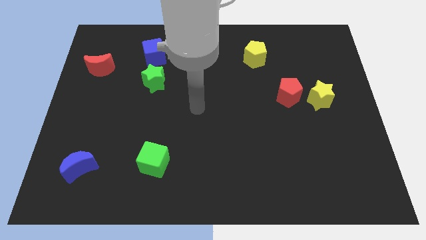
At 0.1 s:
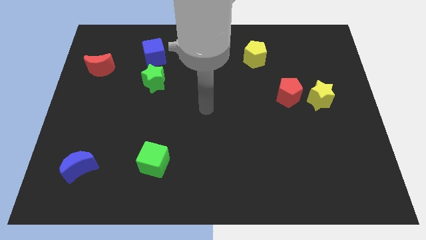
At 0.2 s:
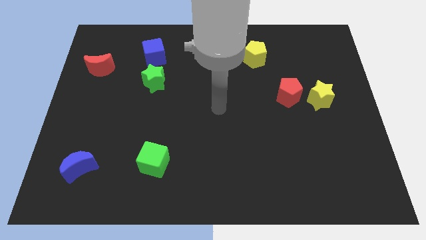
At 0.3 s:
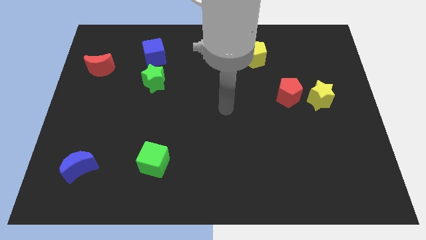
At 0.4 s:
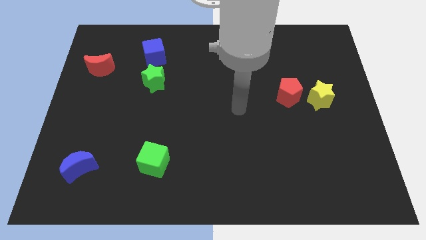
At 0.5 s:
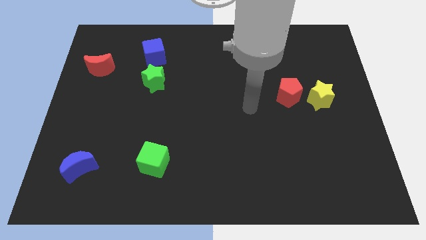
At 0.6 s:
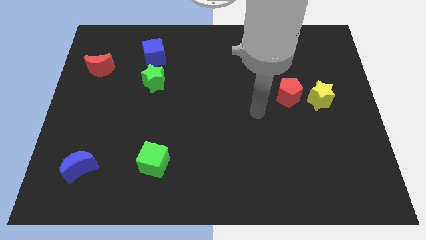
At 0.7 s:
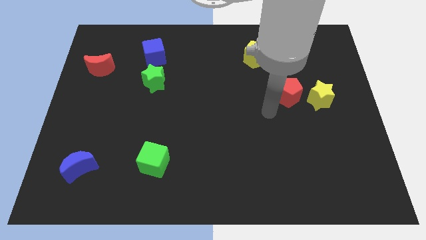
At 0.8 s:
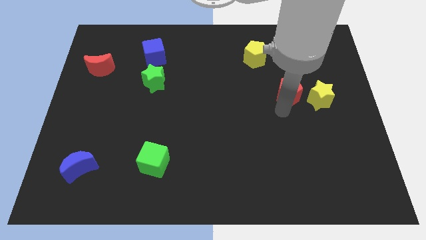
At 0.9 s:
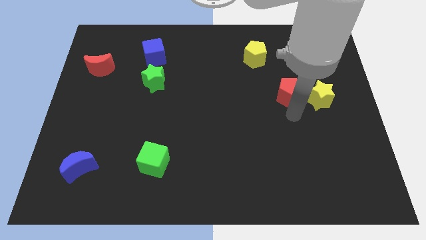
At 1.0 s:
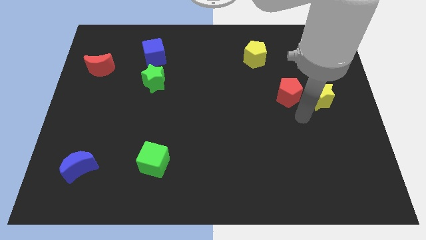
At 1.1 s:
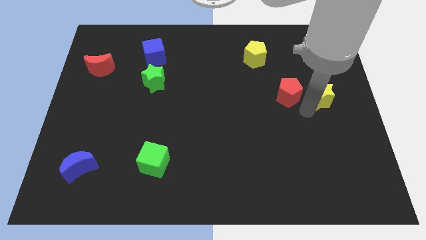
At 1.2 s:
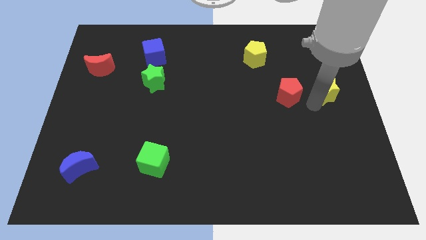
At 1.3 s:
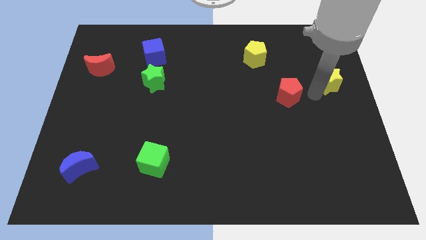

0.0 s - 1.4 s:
pull the red pentagon apart from the yellow star

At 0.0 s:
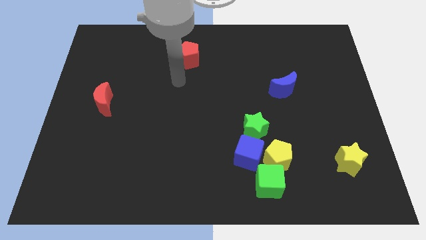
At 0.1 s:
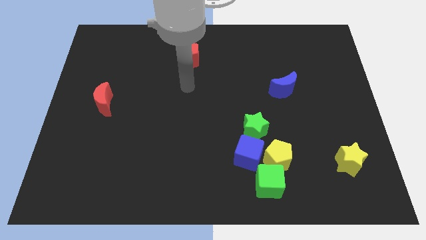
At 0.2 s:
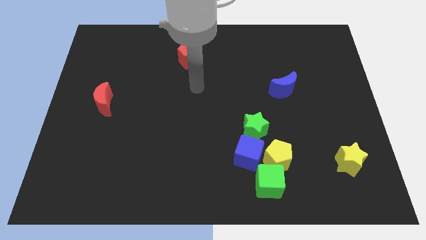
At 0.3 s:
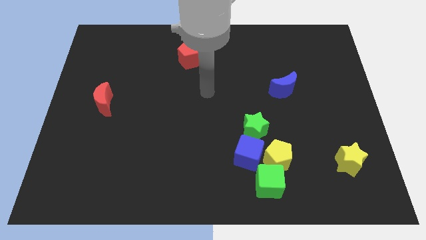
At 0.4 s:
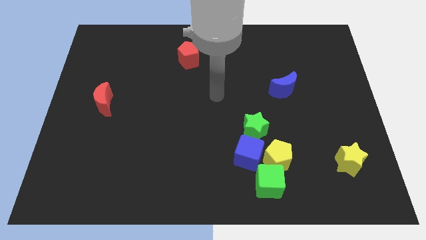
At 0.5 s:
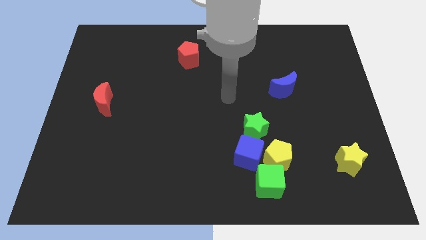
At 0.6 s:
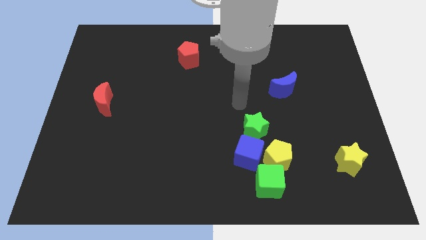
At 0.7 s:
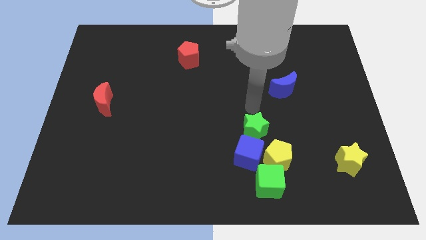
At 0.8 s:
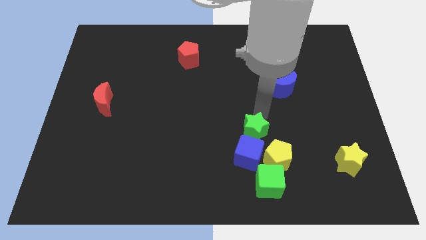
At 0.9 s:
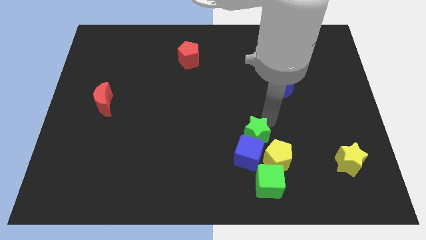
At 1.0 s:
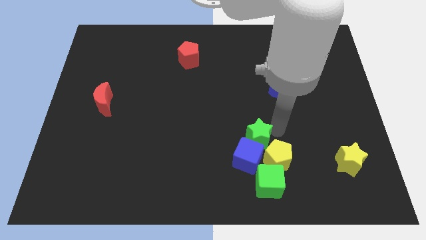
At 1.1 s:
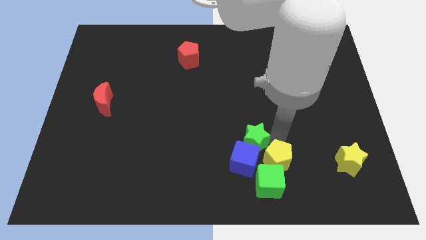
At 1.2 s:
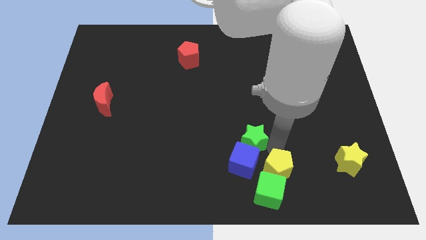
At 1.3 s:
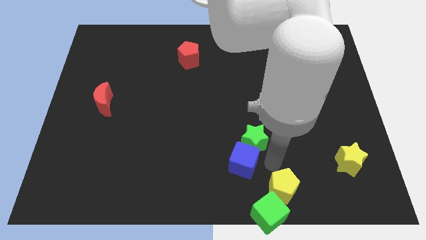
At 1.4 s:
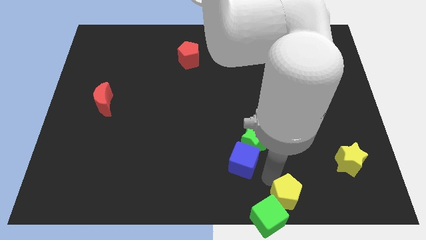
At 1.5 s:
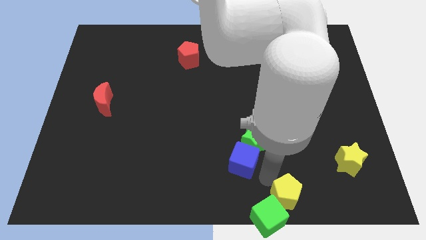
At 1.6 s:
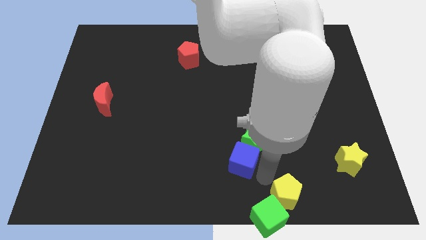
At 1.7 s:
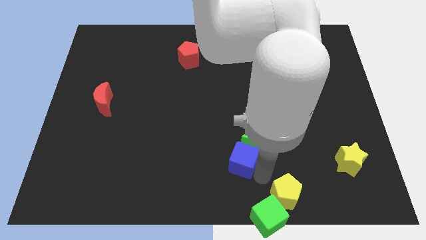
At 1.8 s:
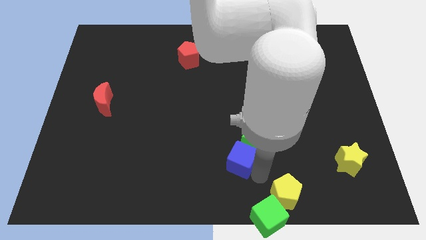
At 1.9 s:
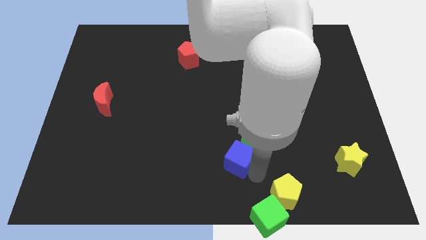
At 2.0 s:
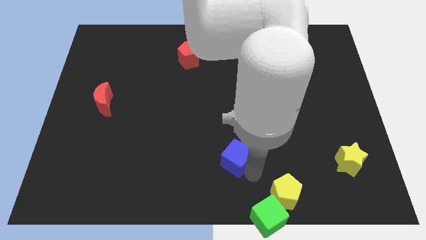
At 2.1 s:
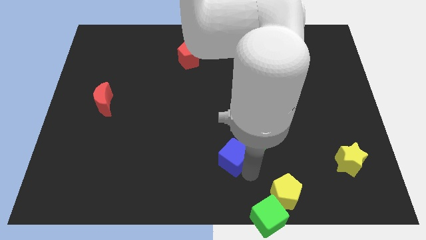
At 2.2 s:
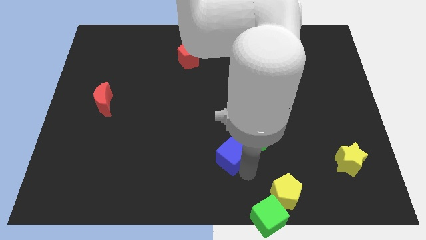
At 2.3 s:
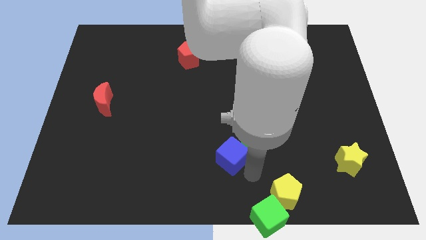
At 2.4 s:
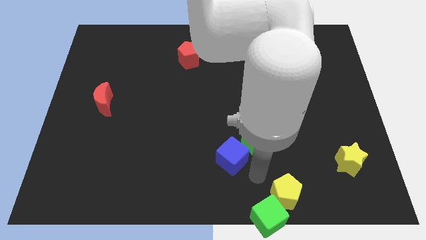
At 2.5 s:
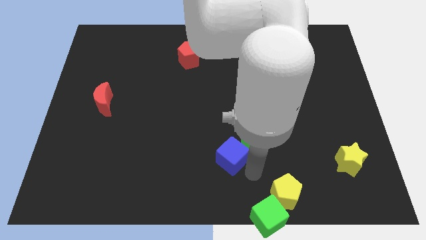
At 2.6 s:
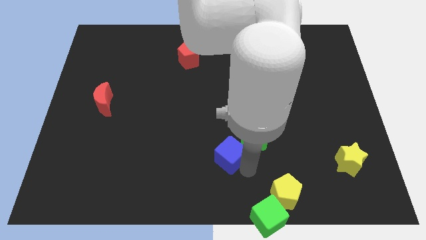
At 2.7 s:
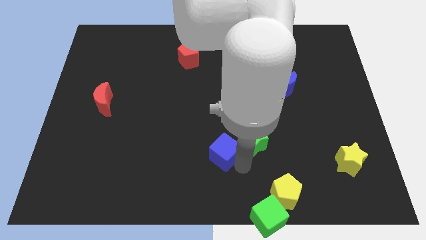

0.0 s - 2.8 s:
pull the blue cube apart from the group of blocks

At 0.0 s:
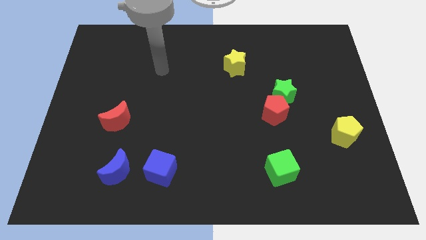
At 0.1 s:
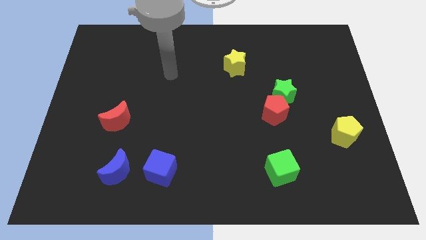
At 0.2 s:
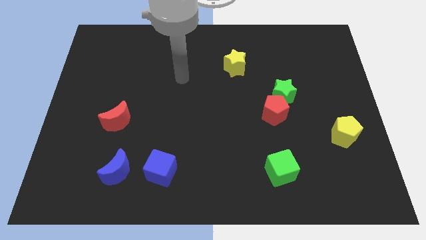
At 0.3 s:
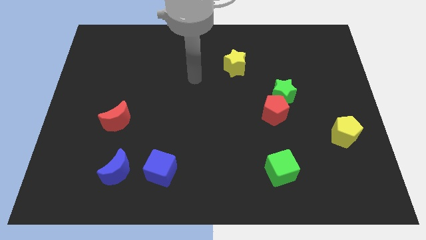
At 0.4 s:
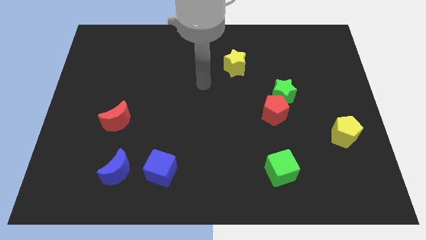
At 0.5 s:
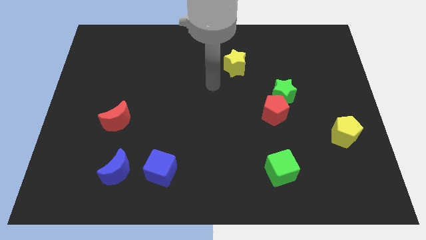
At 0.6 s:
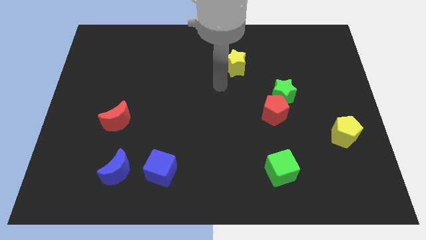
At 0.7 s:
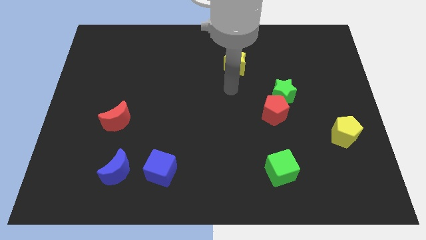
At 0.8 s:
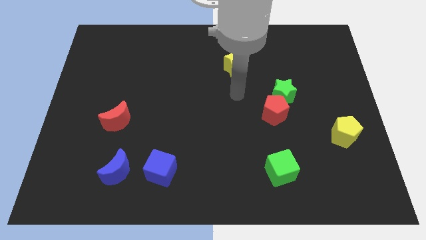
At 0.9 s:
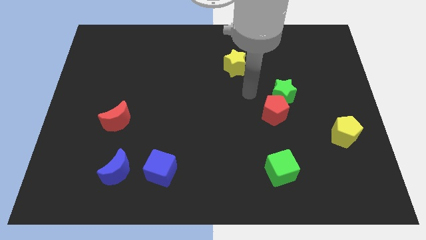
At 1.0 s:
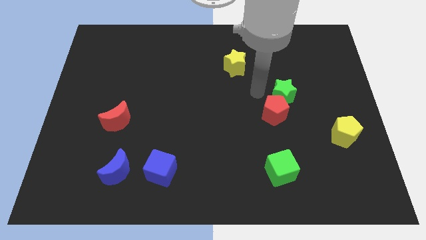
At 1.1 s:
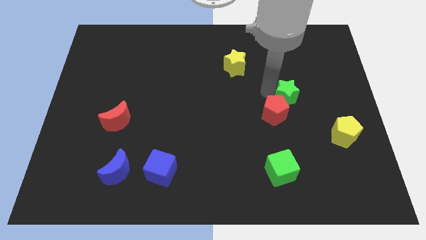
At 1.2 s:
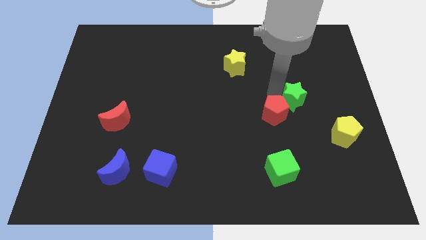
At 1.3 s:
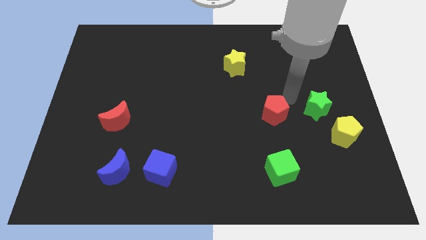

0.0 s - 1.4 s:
separate the red pentagon from the green star

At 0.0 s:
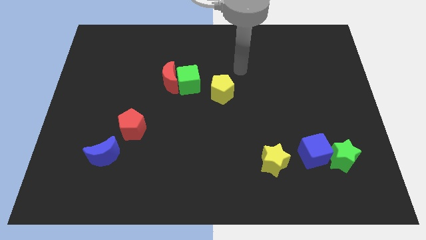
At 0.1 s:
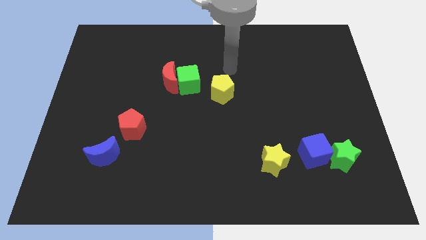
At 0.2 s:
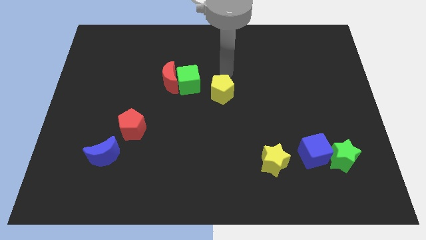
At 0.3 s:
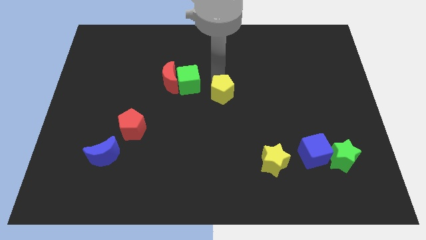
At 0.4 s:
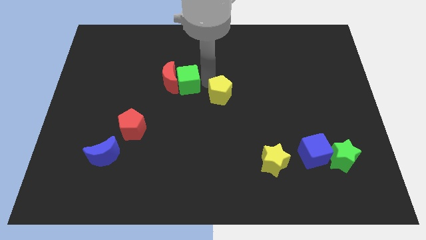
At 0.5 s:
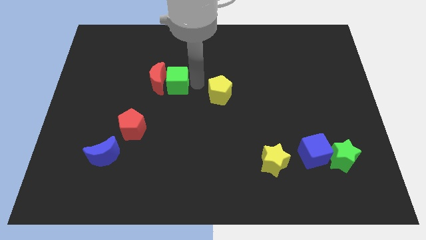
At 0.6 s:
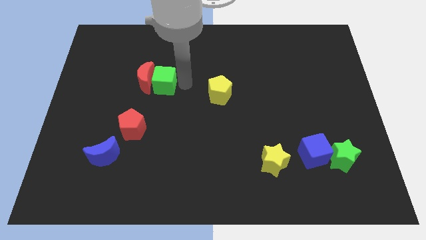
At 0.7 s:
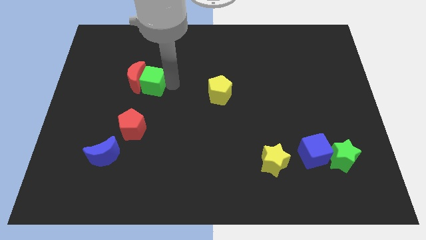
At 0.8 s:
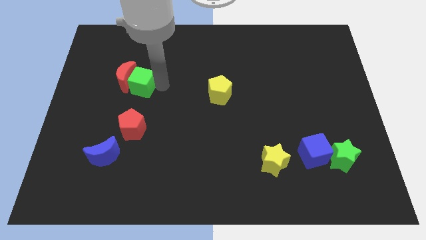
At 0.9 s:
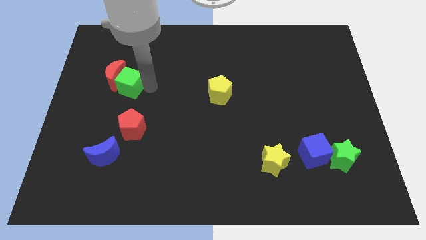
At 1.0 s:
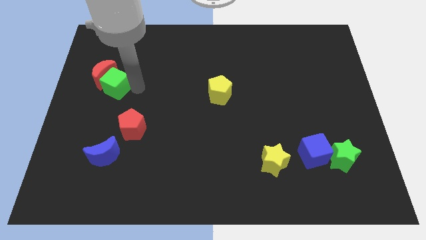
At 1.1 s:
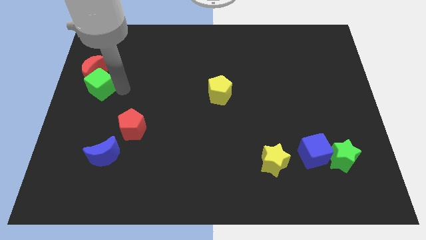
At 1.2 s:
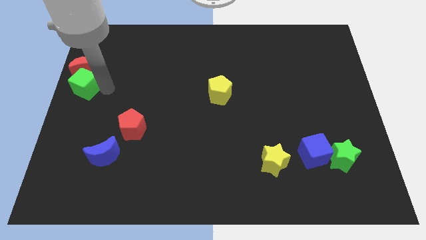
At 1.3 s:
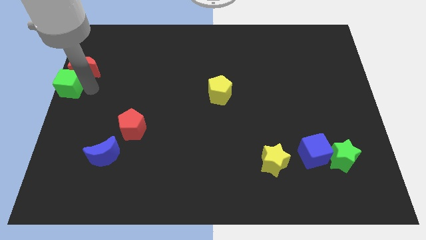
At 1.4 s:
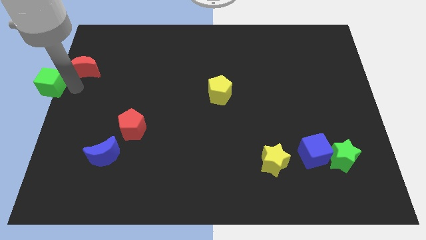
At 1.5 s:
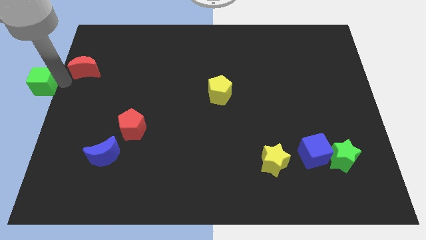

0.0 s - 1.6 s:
separate the red moon from the green cube

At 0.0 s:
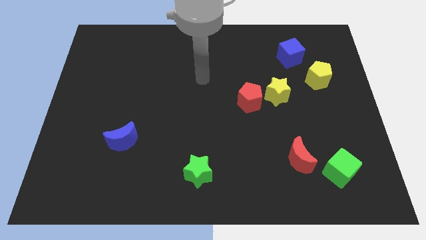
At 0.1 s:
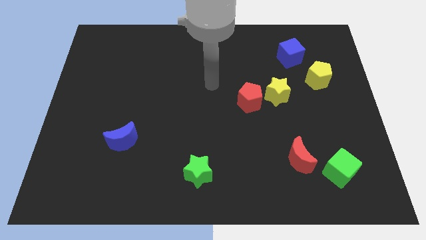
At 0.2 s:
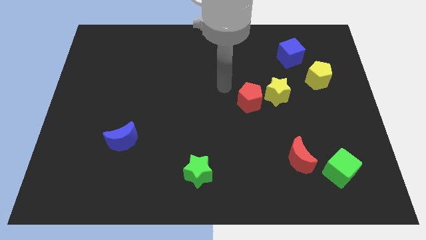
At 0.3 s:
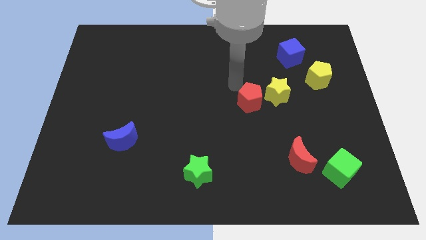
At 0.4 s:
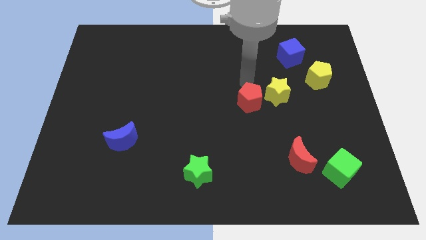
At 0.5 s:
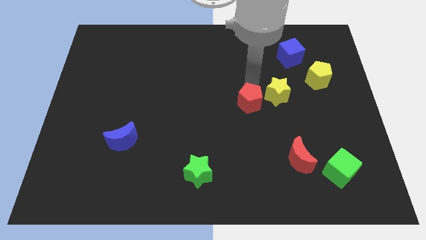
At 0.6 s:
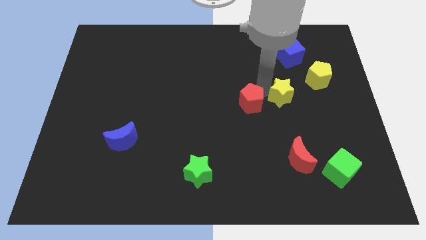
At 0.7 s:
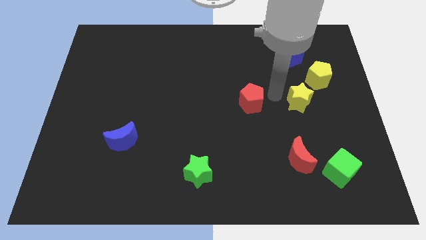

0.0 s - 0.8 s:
move the red pentagon away from the yellow star

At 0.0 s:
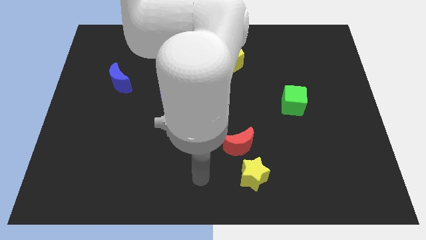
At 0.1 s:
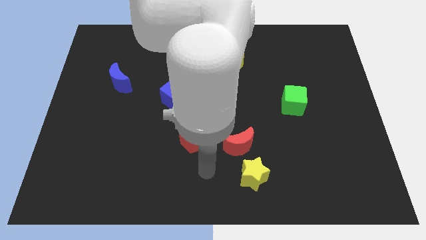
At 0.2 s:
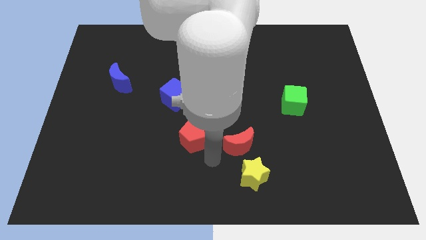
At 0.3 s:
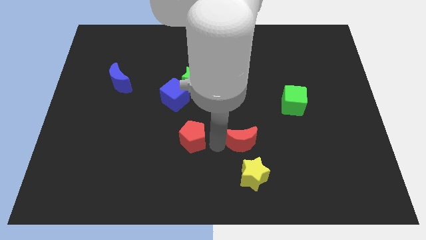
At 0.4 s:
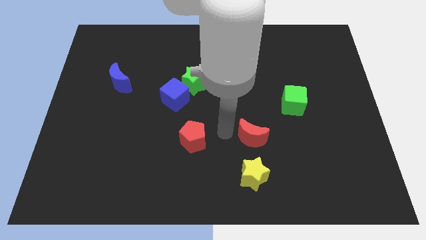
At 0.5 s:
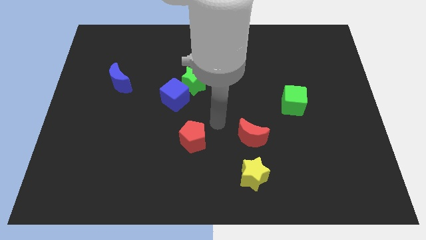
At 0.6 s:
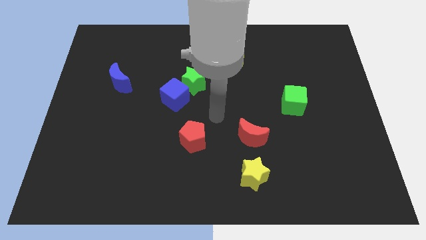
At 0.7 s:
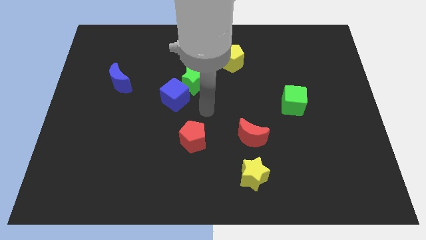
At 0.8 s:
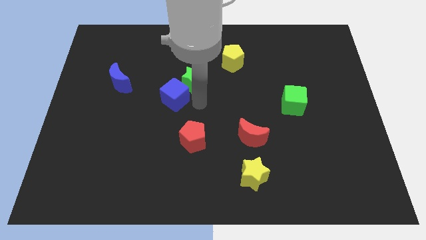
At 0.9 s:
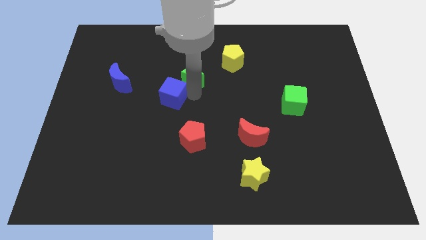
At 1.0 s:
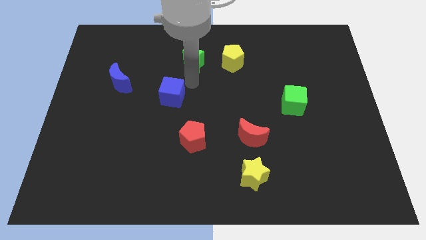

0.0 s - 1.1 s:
move the blue cube away from the green star

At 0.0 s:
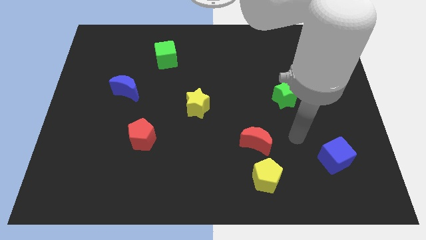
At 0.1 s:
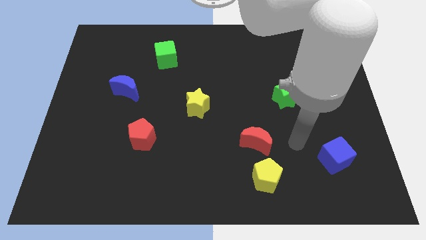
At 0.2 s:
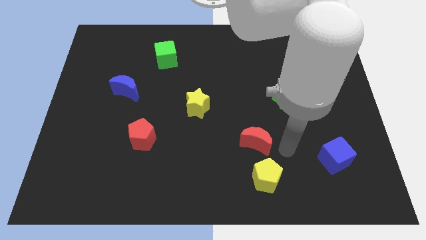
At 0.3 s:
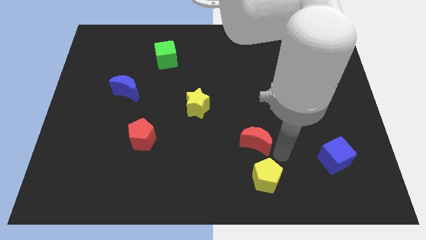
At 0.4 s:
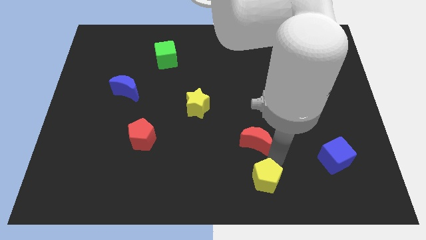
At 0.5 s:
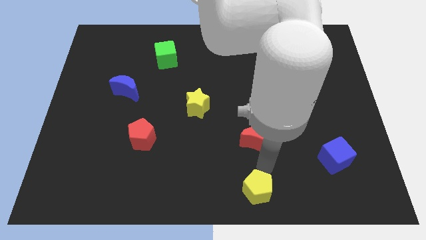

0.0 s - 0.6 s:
move the red moon away from the yellow pentagon
